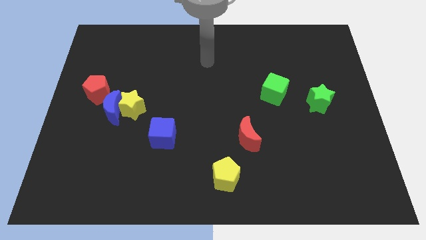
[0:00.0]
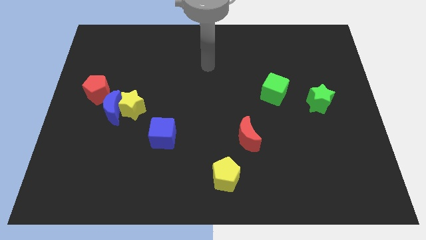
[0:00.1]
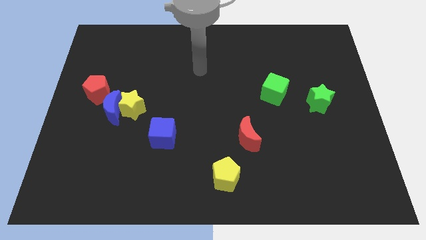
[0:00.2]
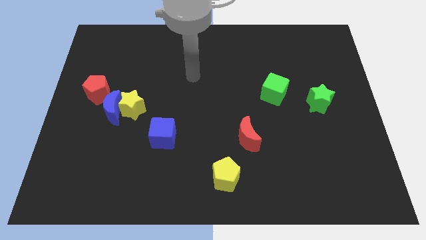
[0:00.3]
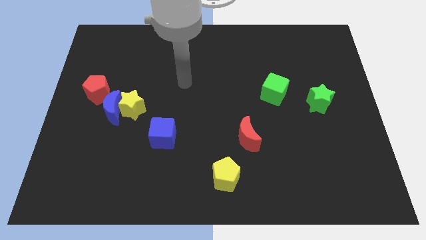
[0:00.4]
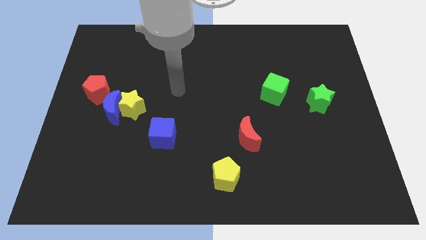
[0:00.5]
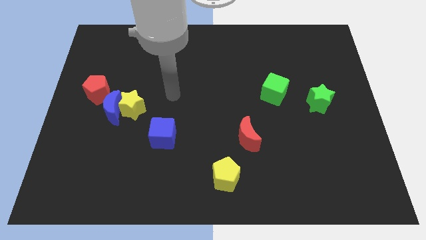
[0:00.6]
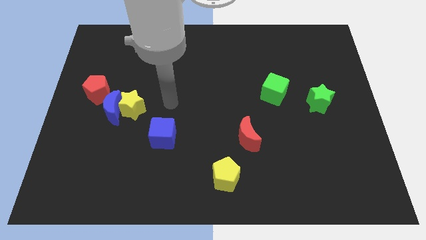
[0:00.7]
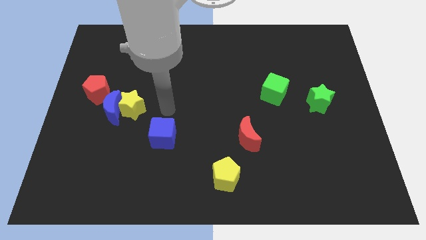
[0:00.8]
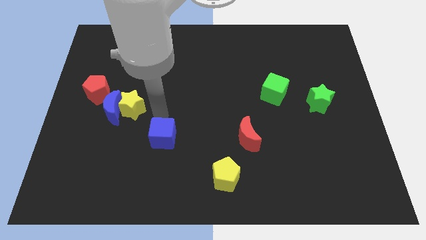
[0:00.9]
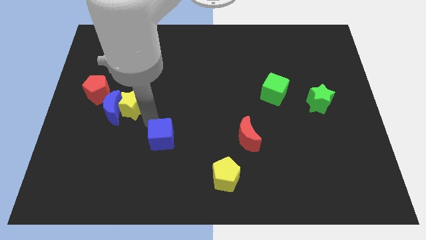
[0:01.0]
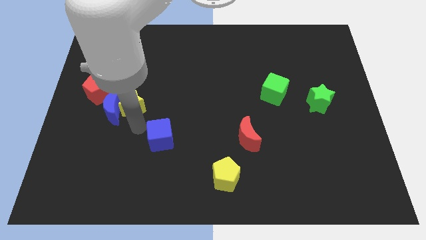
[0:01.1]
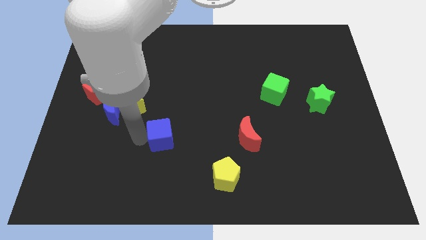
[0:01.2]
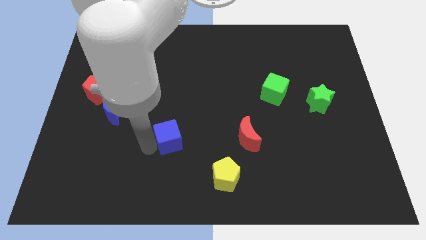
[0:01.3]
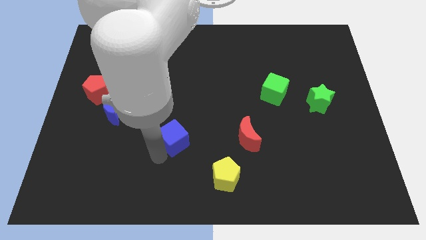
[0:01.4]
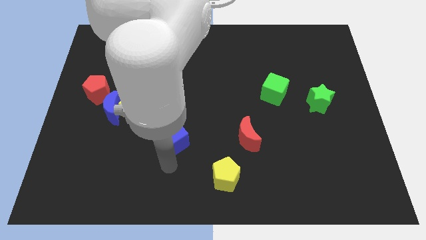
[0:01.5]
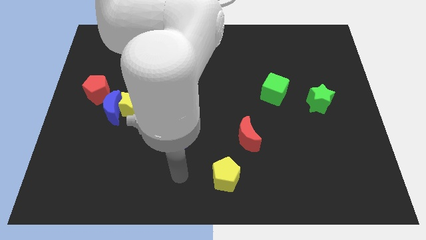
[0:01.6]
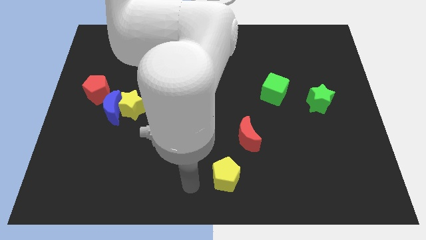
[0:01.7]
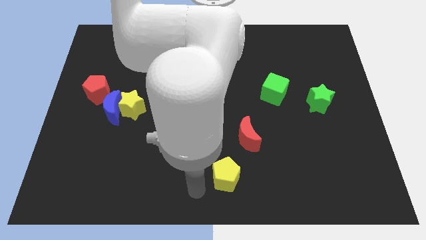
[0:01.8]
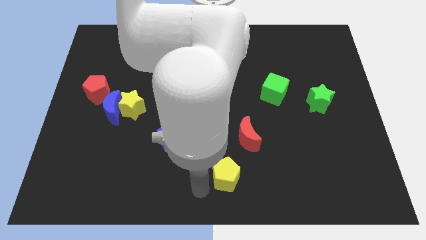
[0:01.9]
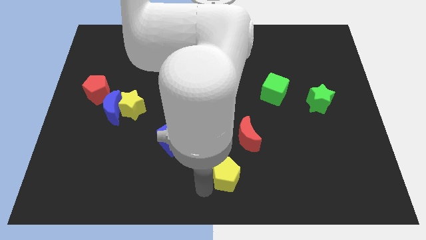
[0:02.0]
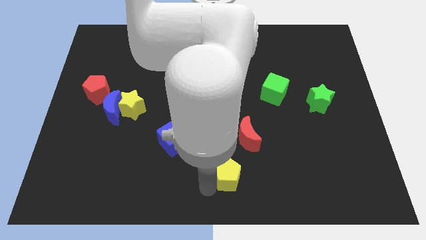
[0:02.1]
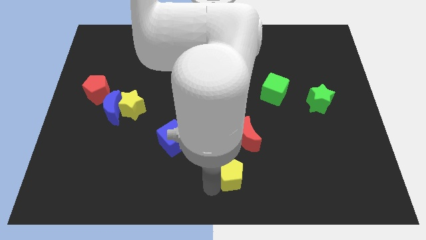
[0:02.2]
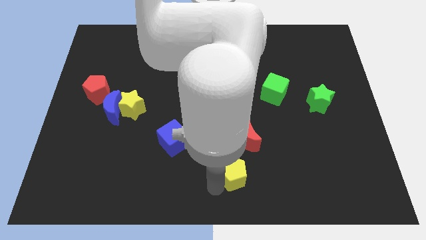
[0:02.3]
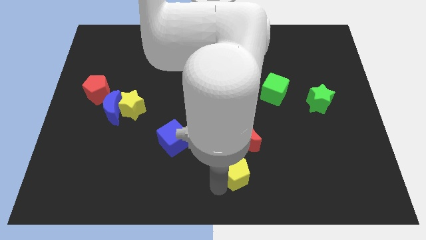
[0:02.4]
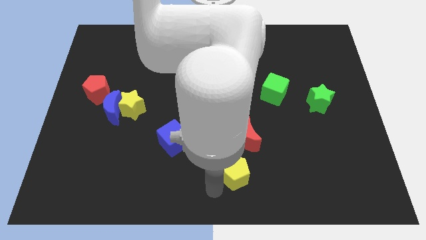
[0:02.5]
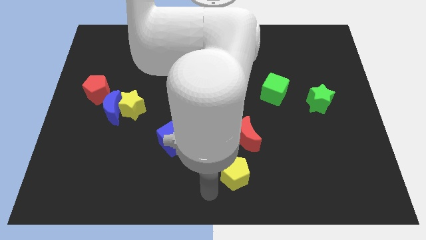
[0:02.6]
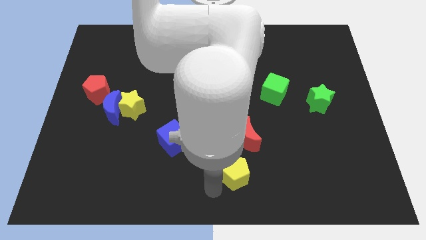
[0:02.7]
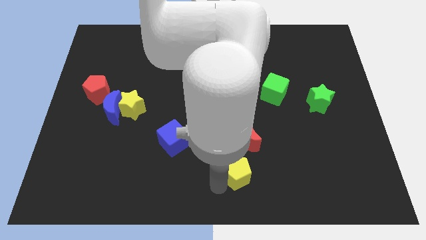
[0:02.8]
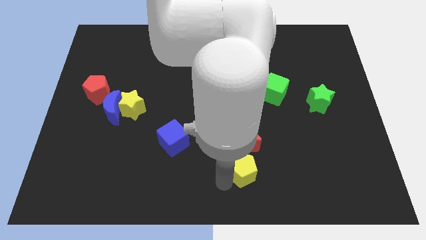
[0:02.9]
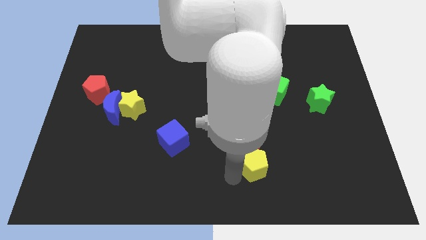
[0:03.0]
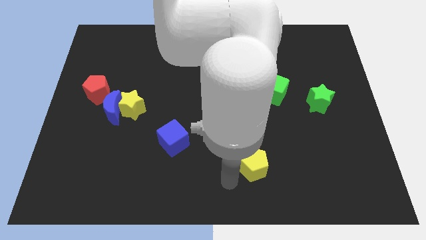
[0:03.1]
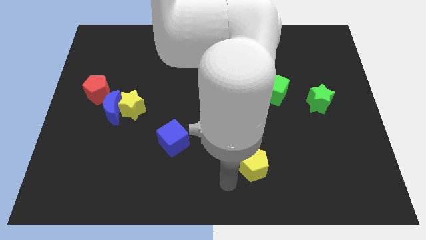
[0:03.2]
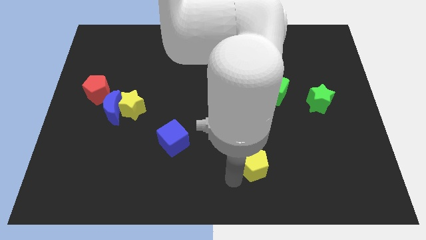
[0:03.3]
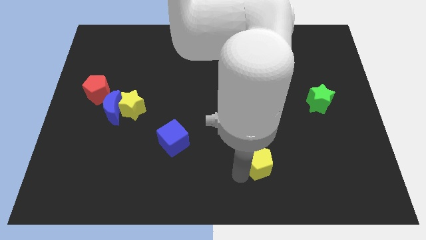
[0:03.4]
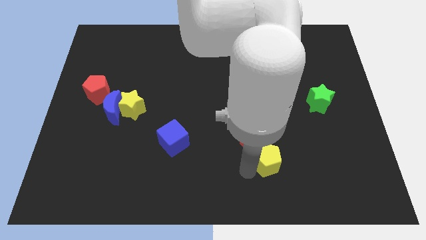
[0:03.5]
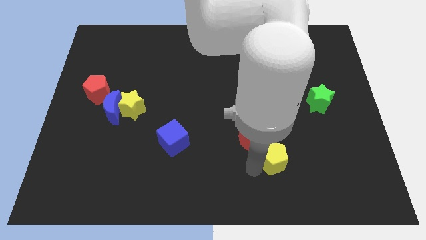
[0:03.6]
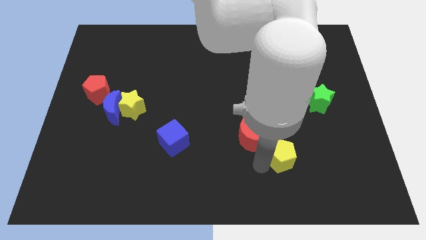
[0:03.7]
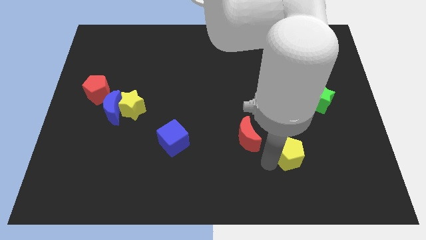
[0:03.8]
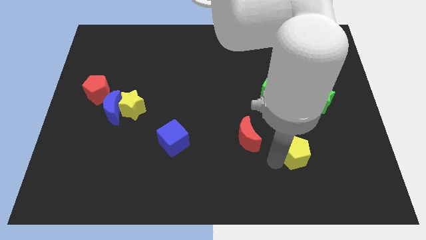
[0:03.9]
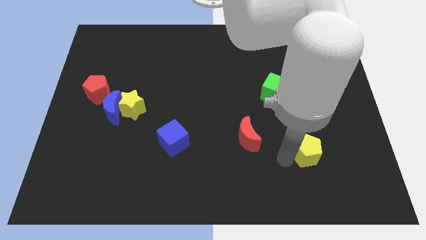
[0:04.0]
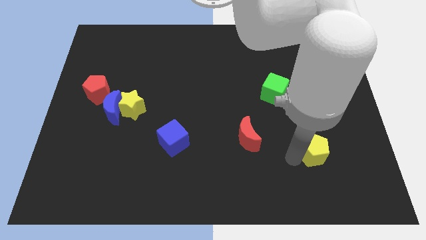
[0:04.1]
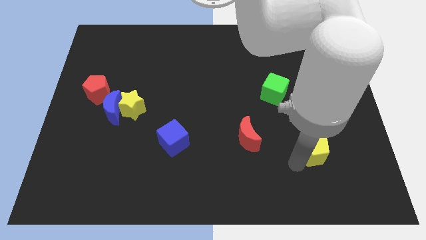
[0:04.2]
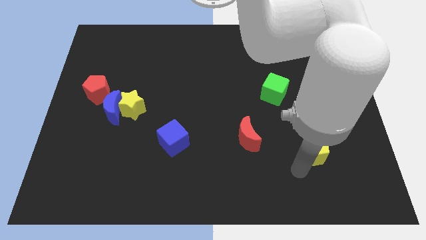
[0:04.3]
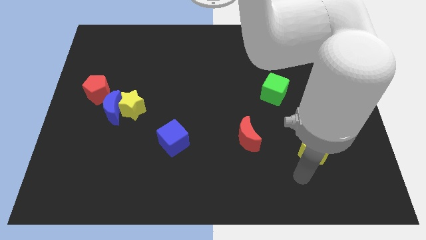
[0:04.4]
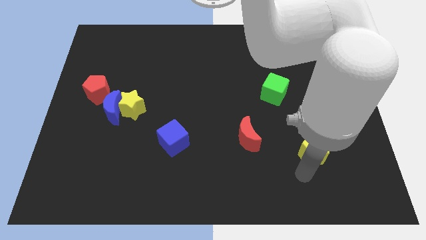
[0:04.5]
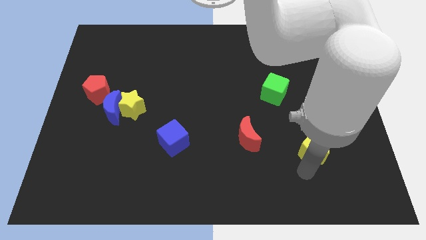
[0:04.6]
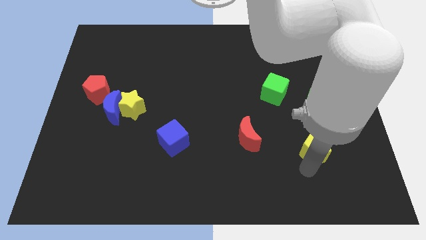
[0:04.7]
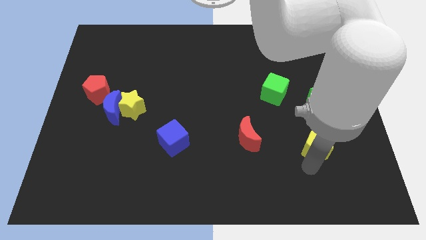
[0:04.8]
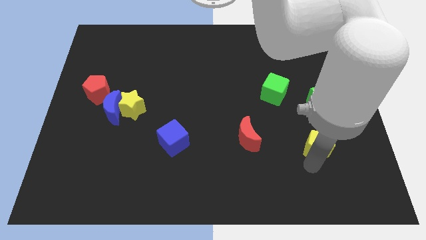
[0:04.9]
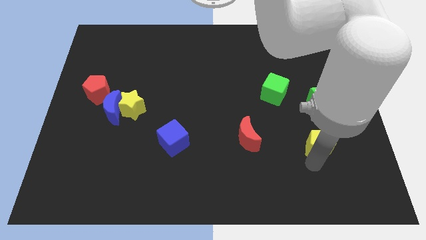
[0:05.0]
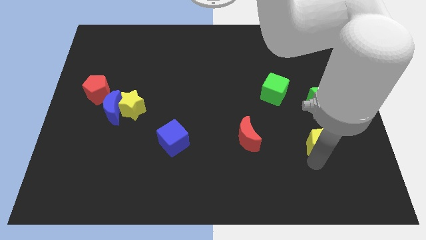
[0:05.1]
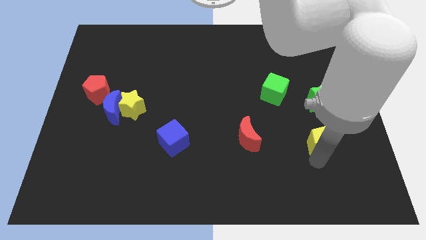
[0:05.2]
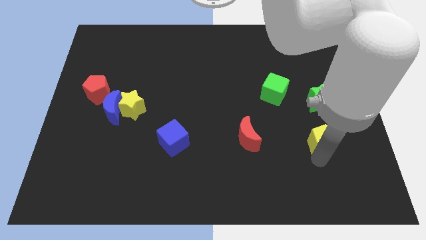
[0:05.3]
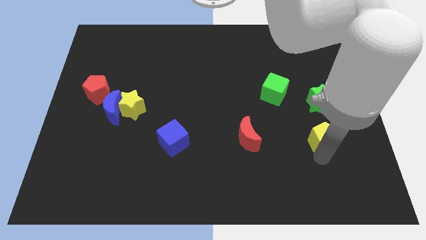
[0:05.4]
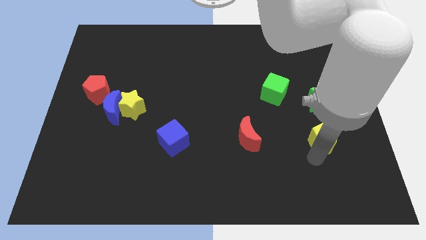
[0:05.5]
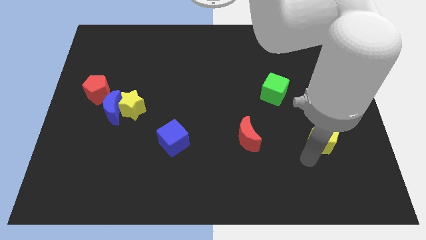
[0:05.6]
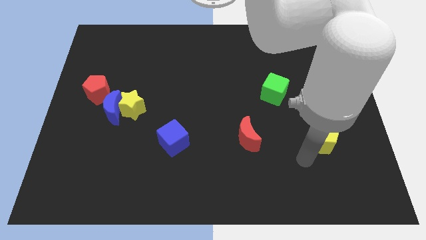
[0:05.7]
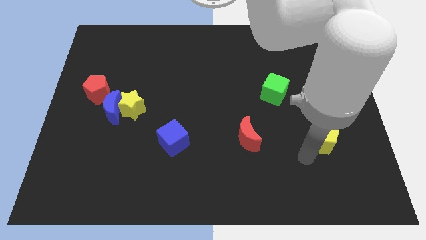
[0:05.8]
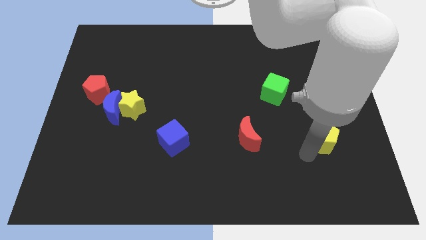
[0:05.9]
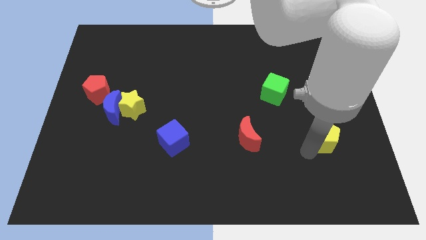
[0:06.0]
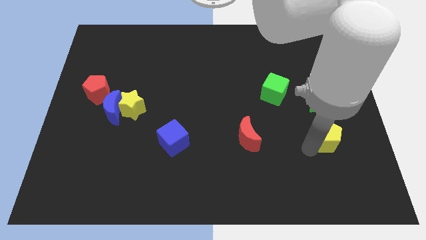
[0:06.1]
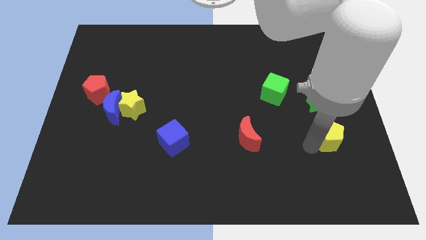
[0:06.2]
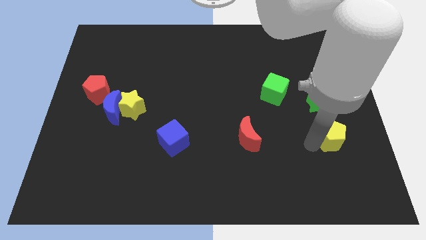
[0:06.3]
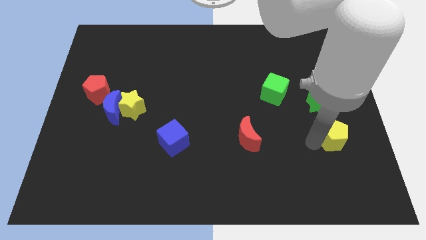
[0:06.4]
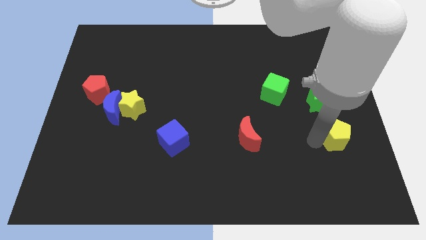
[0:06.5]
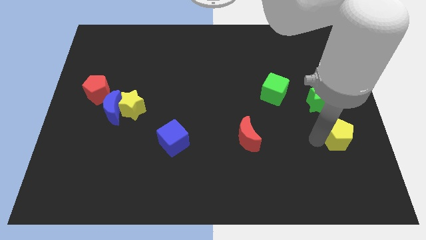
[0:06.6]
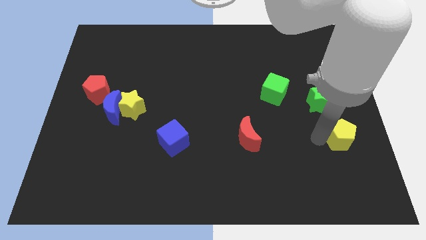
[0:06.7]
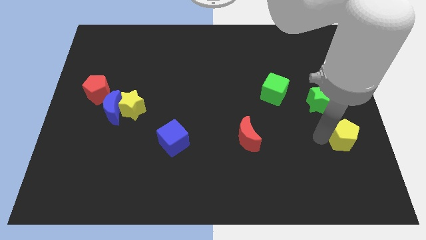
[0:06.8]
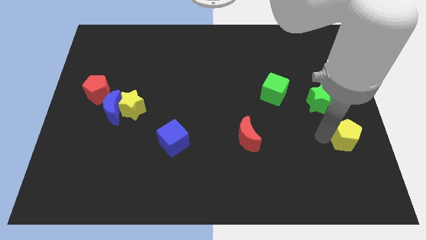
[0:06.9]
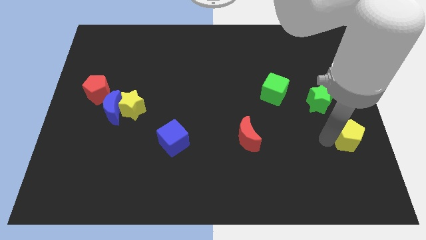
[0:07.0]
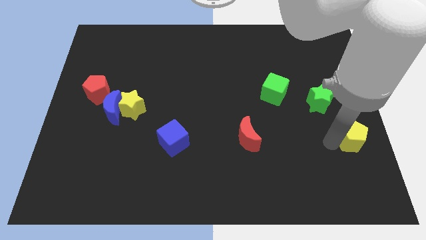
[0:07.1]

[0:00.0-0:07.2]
slide the yellow pentagon to the center right
